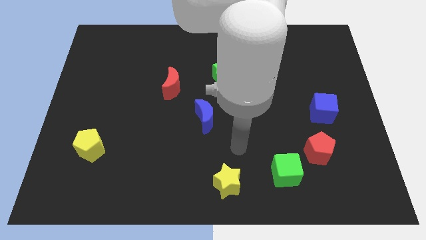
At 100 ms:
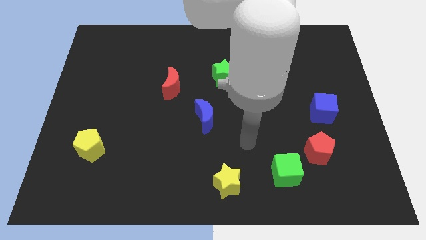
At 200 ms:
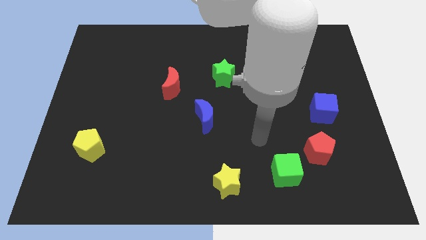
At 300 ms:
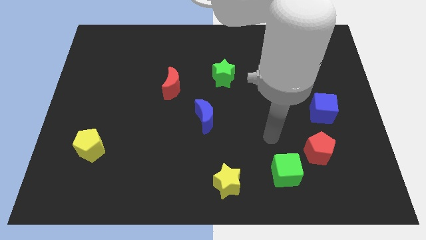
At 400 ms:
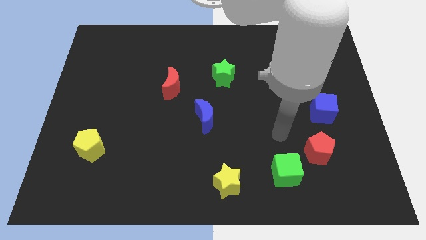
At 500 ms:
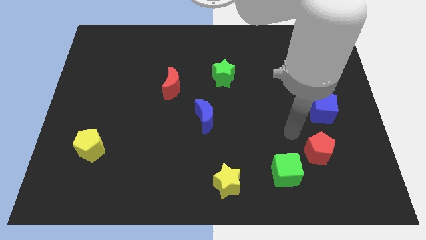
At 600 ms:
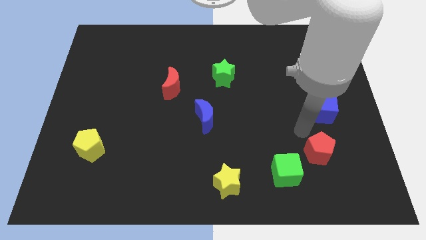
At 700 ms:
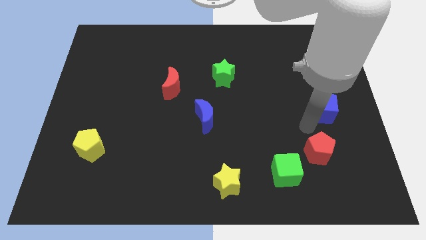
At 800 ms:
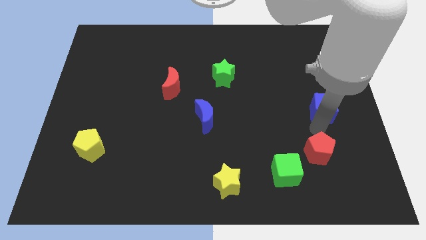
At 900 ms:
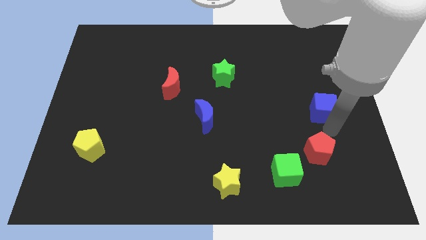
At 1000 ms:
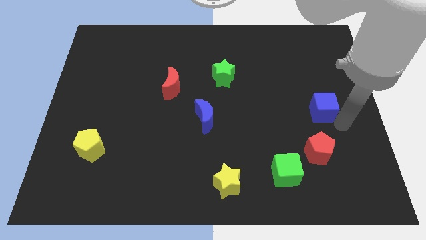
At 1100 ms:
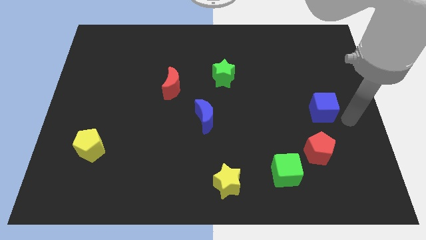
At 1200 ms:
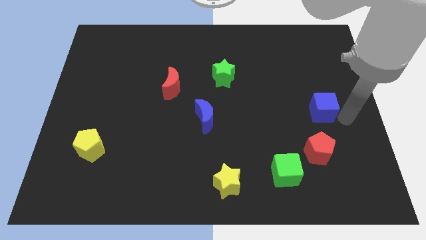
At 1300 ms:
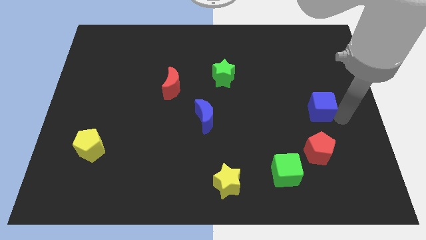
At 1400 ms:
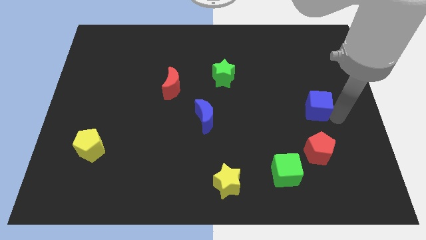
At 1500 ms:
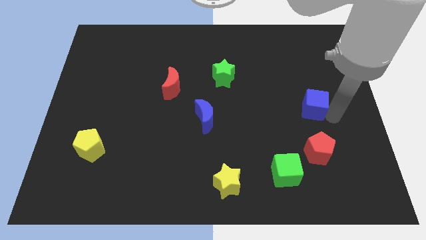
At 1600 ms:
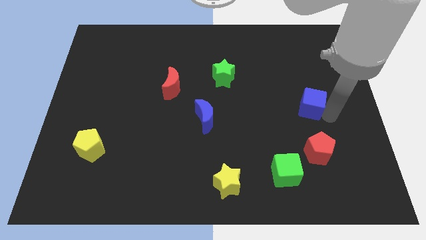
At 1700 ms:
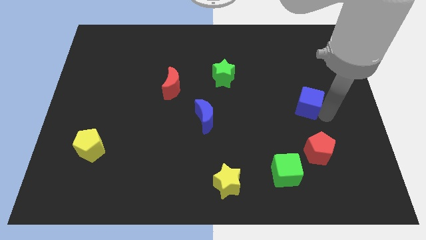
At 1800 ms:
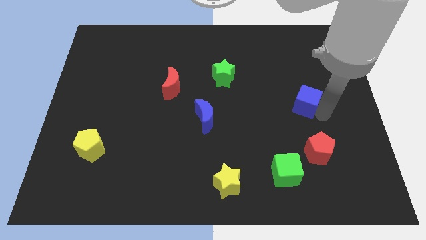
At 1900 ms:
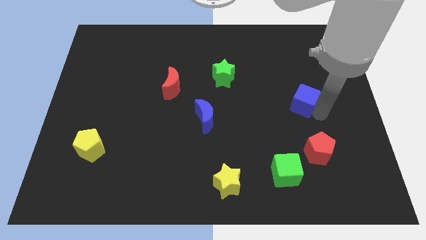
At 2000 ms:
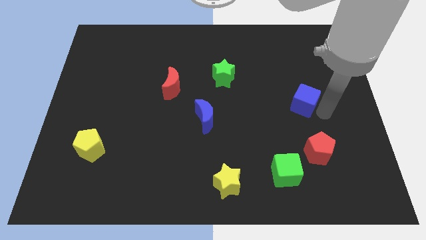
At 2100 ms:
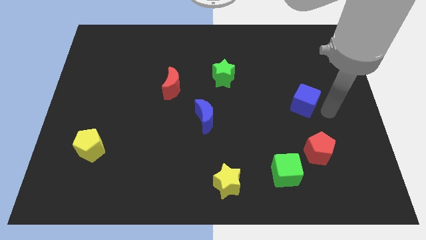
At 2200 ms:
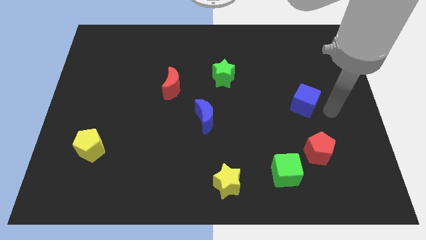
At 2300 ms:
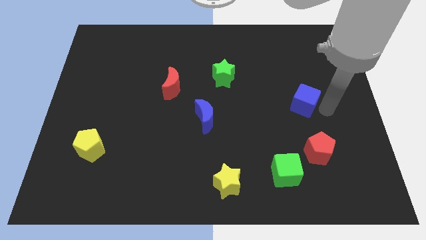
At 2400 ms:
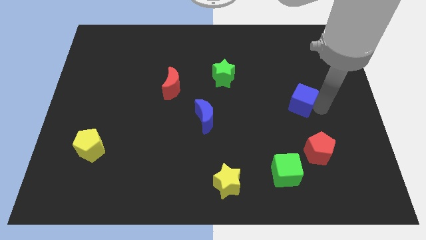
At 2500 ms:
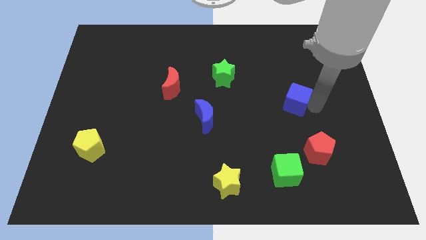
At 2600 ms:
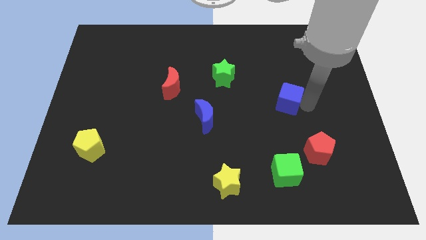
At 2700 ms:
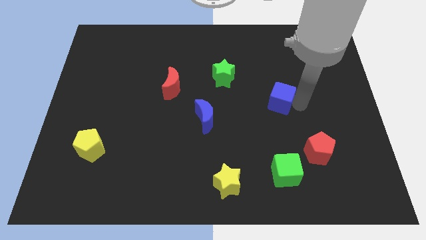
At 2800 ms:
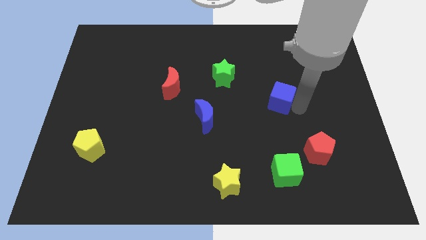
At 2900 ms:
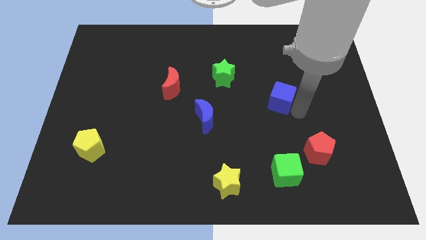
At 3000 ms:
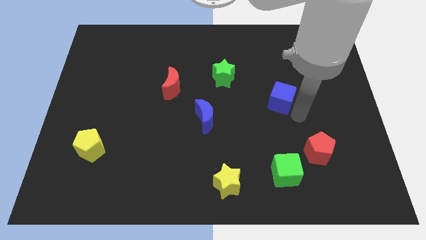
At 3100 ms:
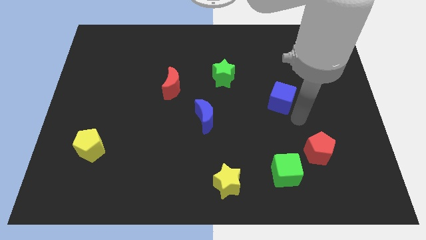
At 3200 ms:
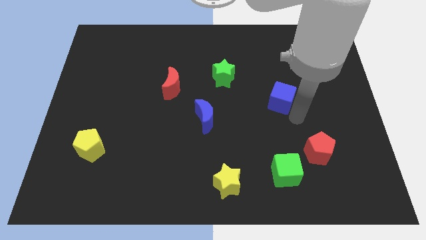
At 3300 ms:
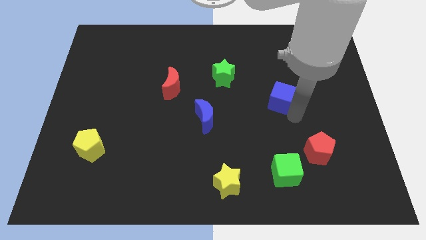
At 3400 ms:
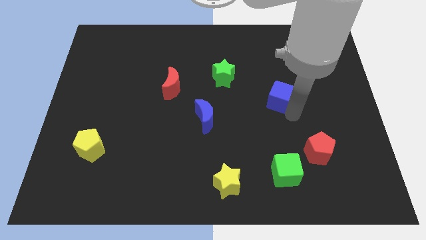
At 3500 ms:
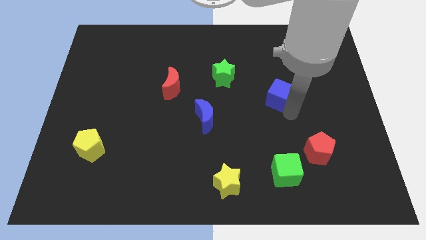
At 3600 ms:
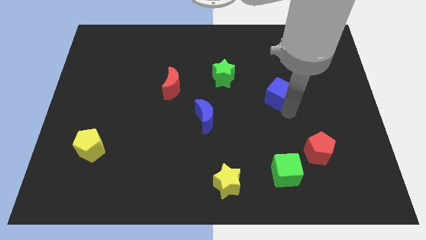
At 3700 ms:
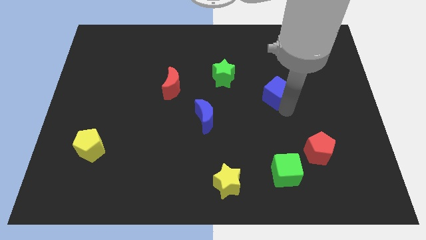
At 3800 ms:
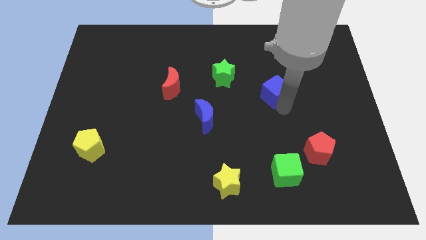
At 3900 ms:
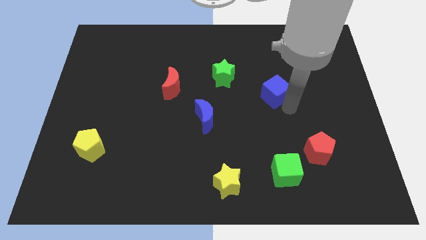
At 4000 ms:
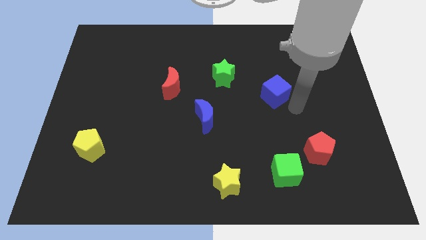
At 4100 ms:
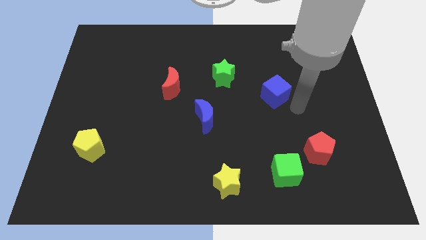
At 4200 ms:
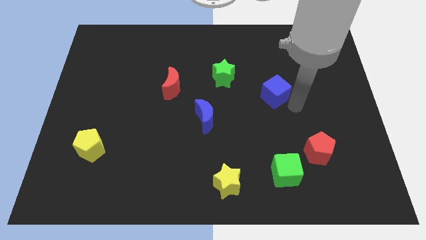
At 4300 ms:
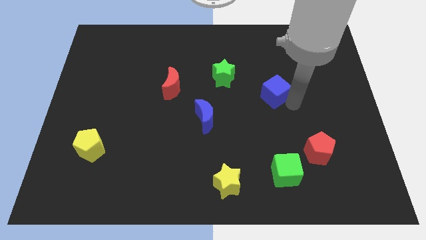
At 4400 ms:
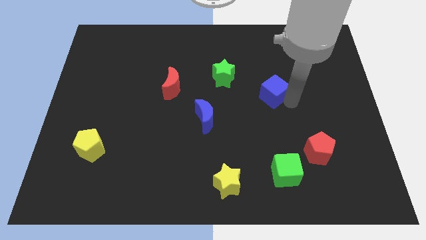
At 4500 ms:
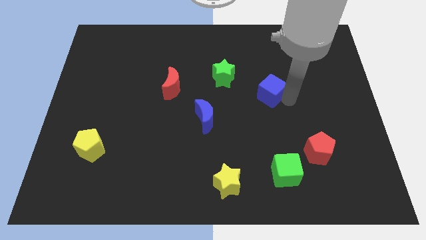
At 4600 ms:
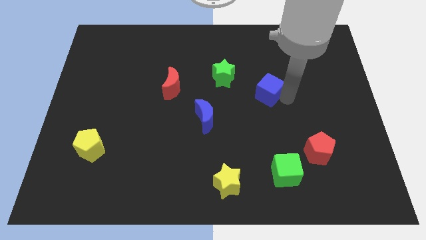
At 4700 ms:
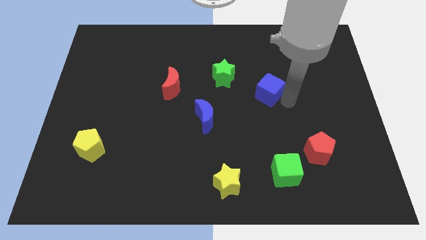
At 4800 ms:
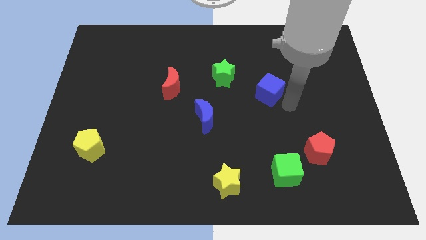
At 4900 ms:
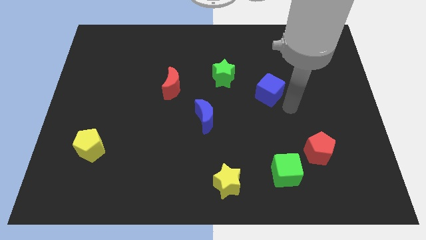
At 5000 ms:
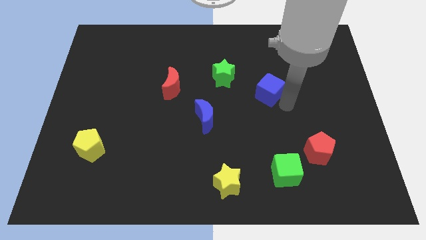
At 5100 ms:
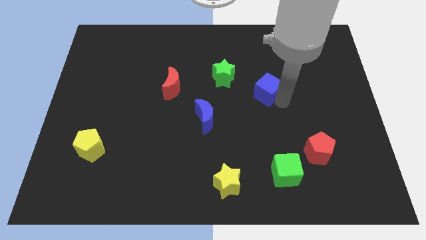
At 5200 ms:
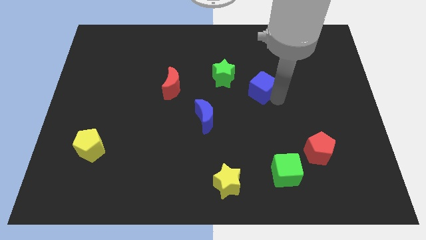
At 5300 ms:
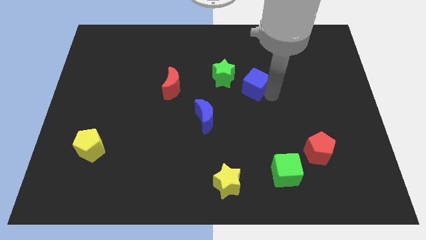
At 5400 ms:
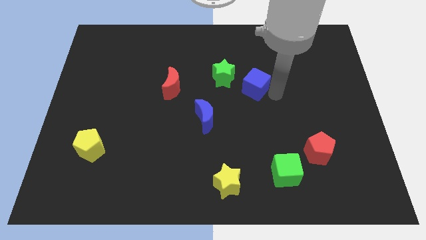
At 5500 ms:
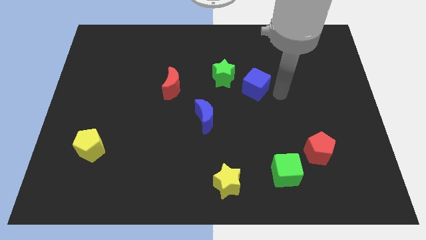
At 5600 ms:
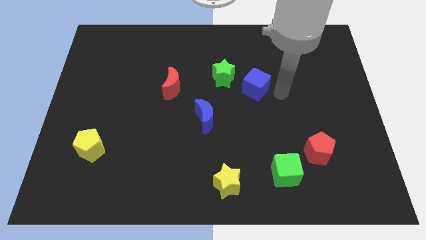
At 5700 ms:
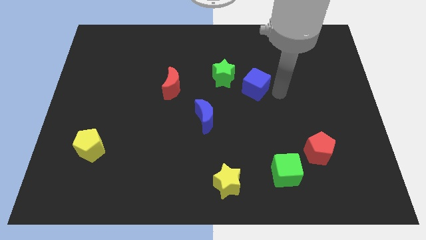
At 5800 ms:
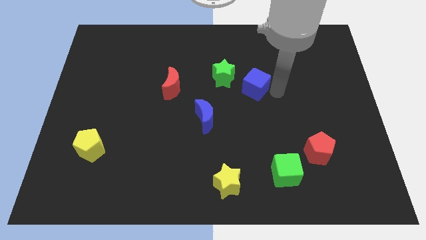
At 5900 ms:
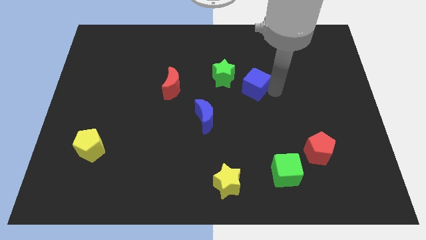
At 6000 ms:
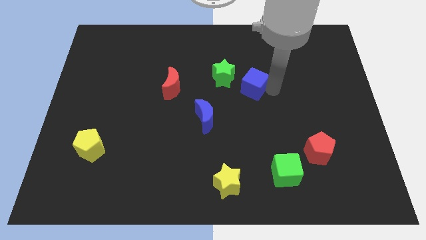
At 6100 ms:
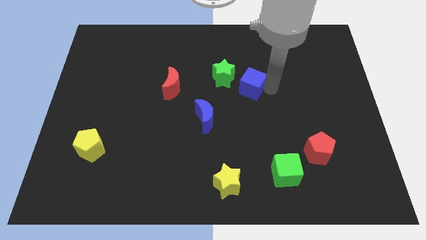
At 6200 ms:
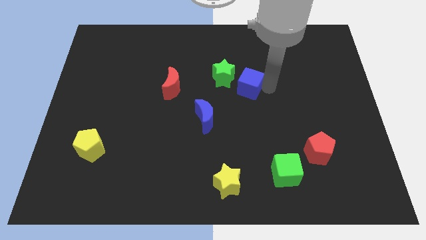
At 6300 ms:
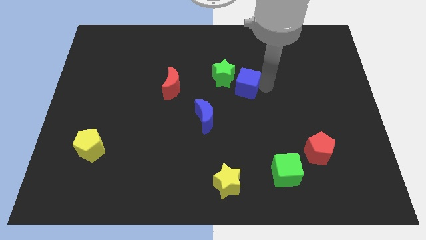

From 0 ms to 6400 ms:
push the blue cube towards the green star

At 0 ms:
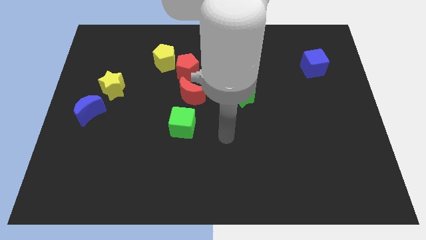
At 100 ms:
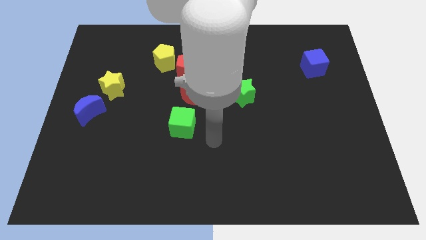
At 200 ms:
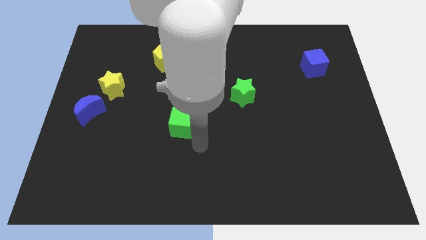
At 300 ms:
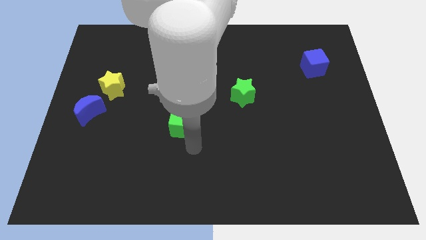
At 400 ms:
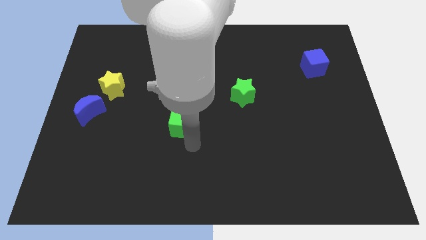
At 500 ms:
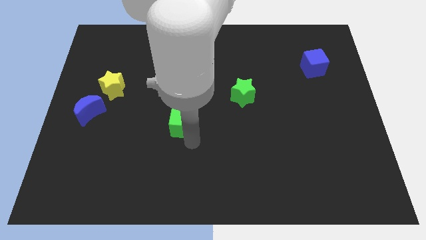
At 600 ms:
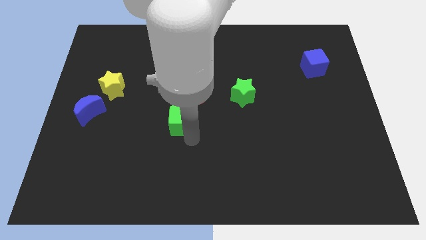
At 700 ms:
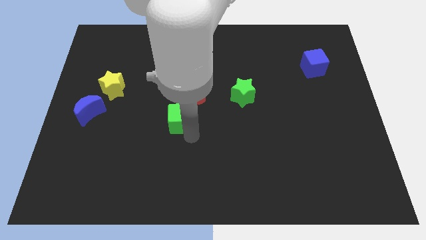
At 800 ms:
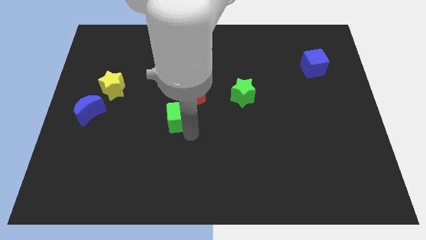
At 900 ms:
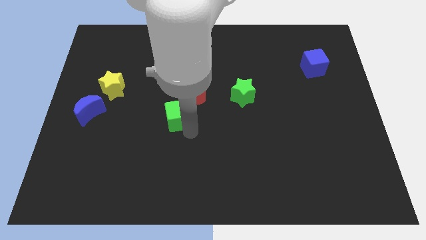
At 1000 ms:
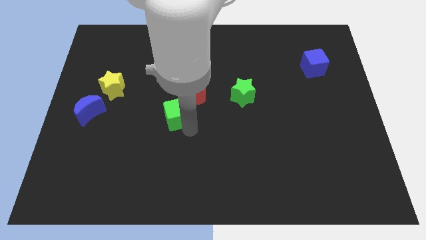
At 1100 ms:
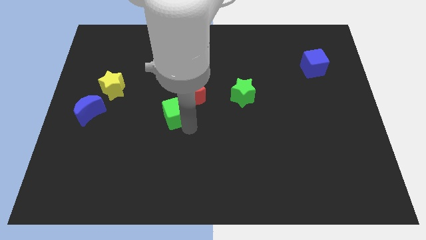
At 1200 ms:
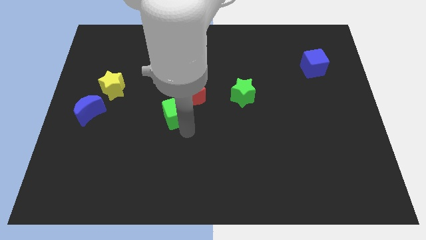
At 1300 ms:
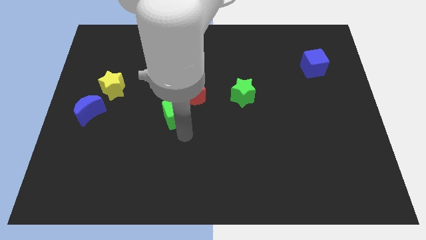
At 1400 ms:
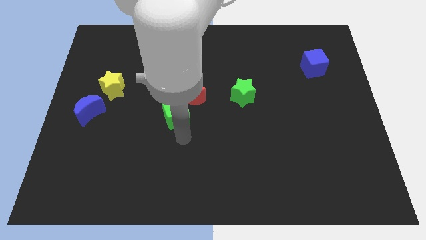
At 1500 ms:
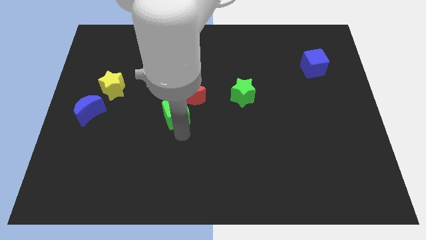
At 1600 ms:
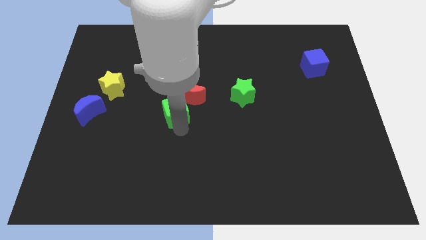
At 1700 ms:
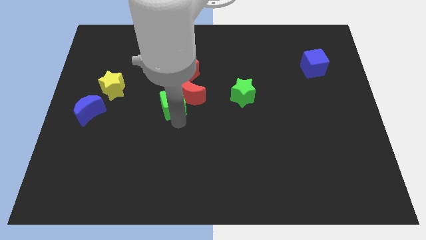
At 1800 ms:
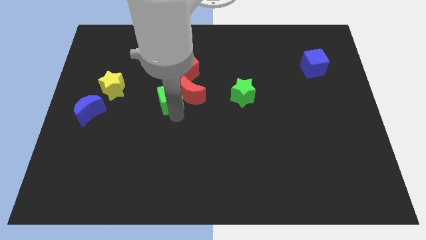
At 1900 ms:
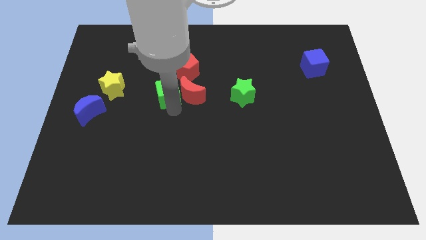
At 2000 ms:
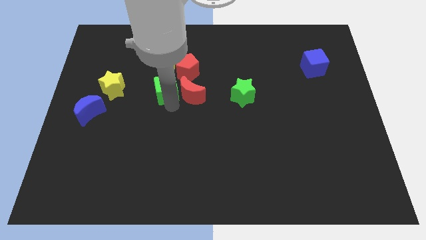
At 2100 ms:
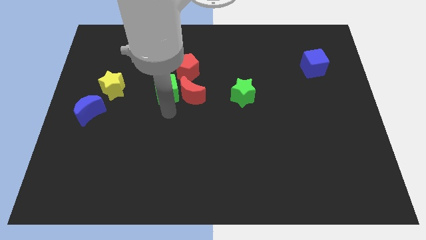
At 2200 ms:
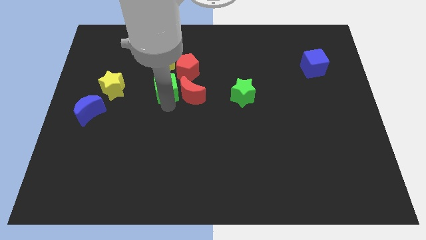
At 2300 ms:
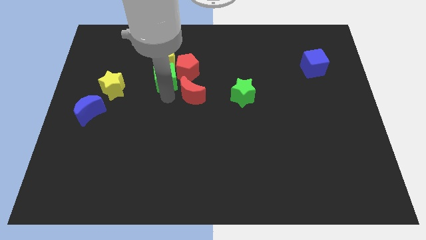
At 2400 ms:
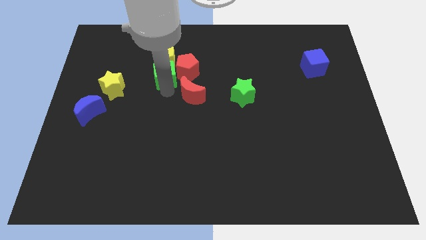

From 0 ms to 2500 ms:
put the green cube to the yellow pentagon
